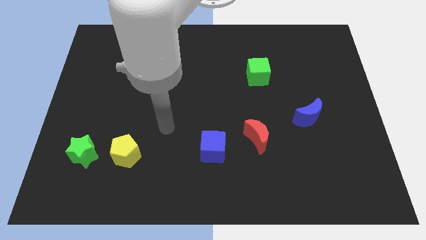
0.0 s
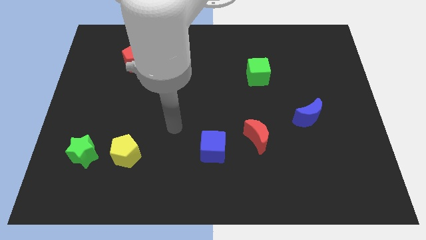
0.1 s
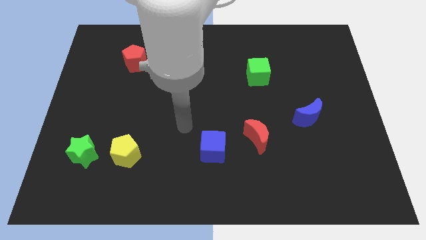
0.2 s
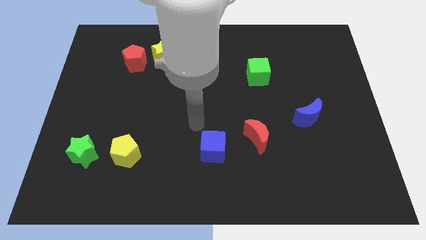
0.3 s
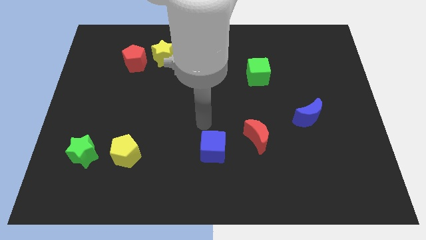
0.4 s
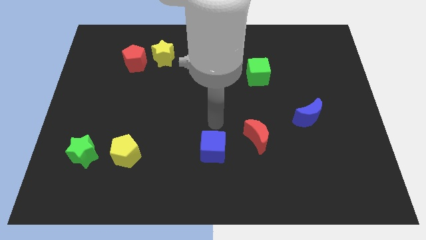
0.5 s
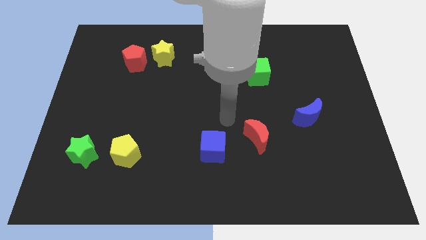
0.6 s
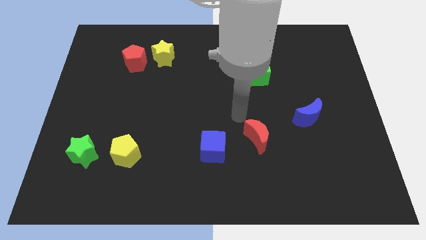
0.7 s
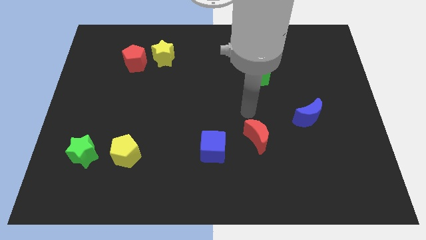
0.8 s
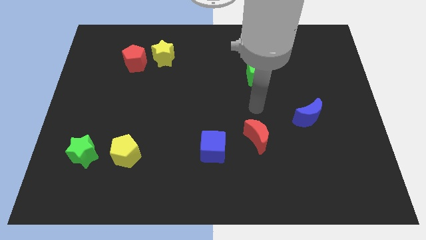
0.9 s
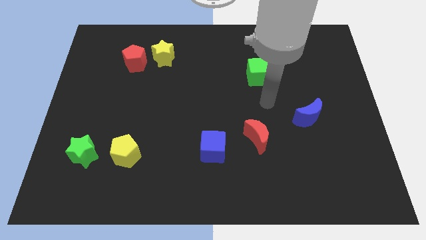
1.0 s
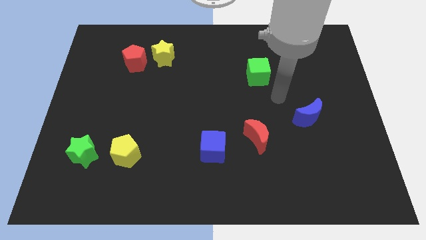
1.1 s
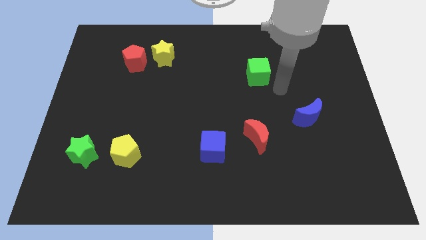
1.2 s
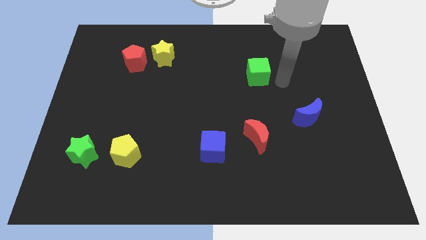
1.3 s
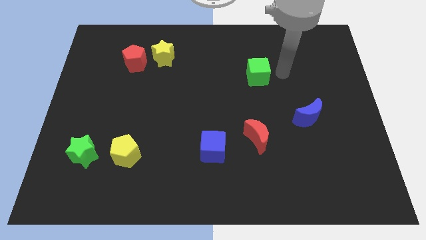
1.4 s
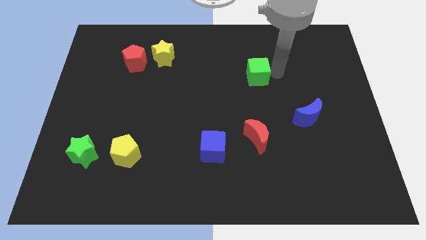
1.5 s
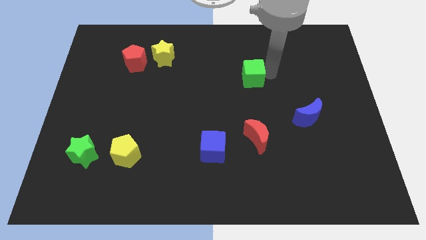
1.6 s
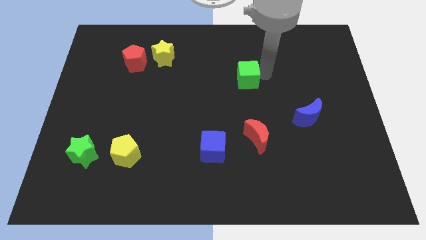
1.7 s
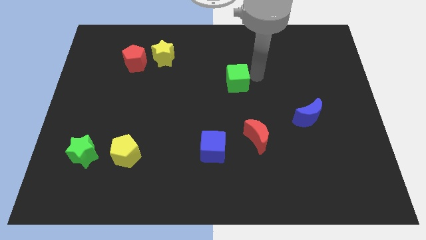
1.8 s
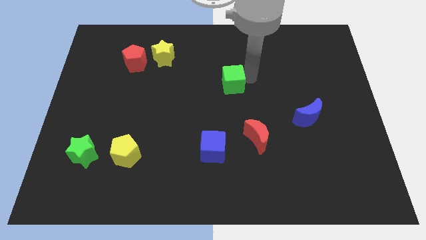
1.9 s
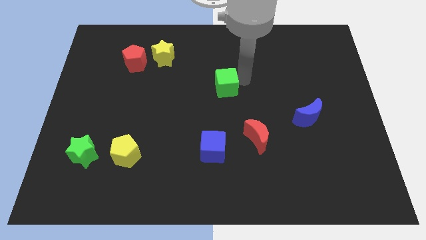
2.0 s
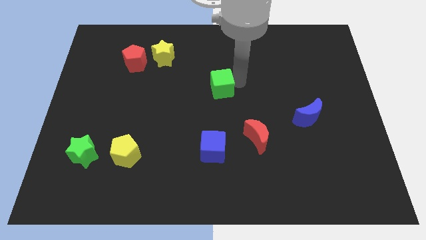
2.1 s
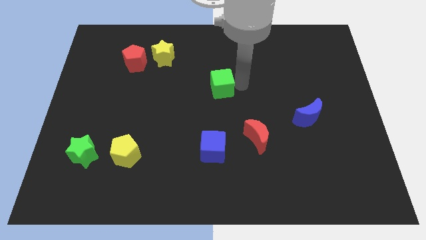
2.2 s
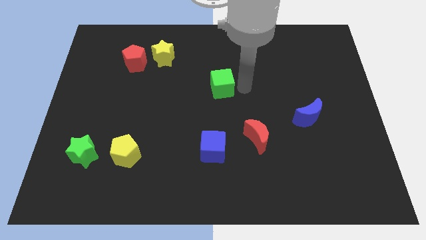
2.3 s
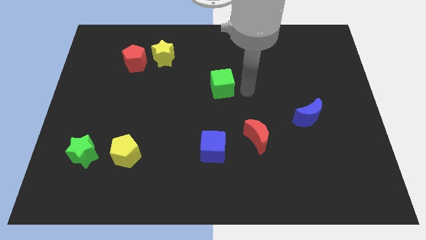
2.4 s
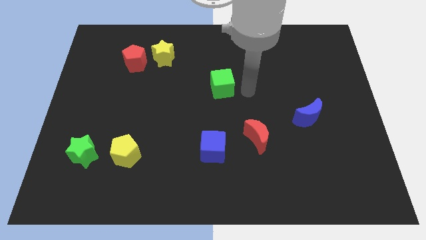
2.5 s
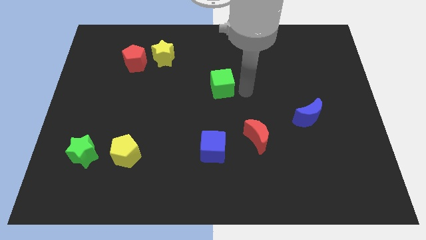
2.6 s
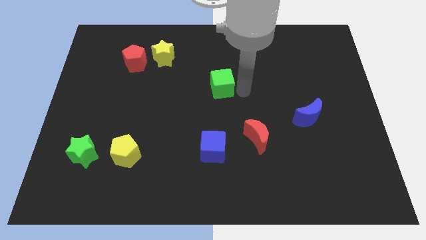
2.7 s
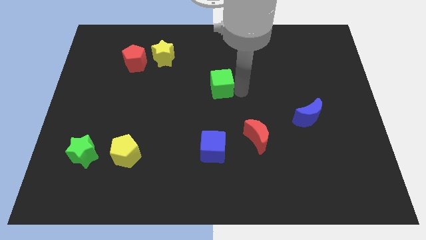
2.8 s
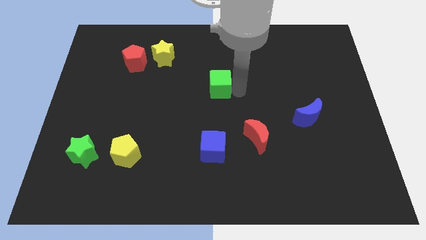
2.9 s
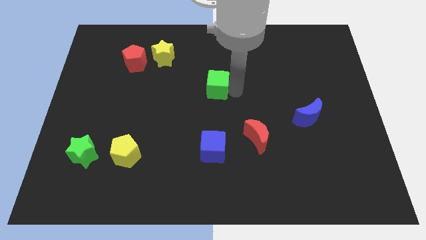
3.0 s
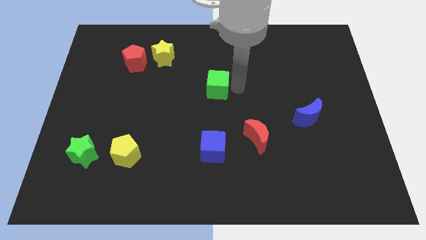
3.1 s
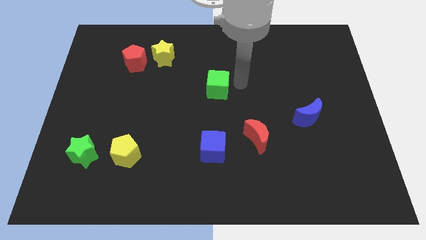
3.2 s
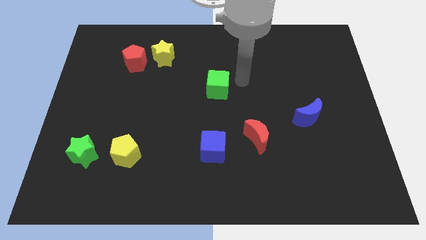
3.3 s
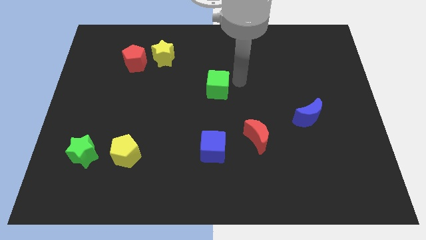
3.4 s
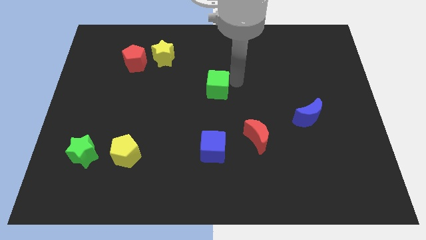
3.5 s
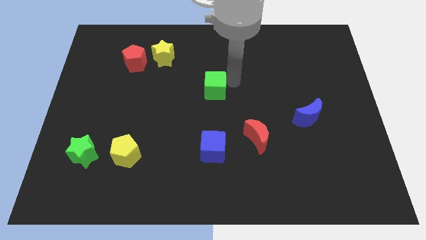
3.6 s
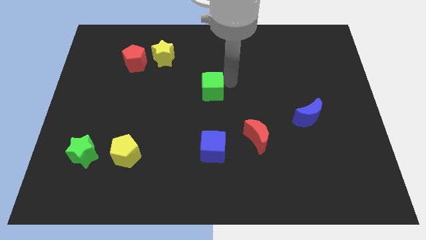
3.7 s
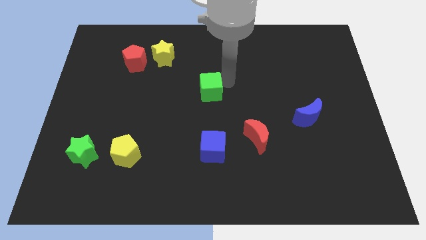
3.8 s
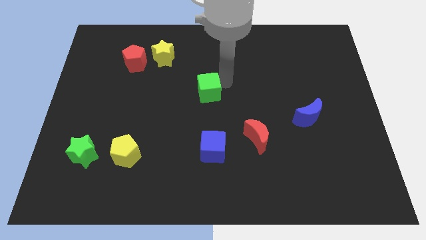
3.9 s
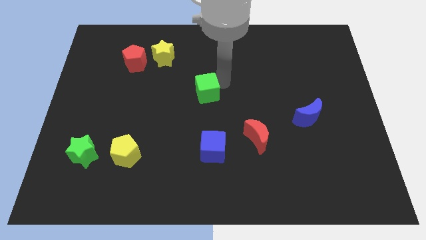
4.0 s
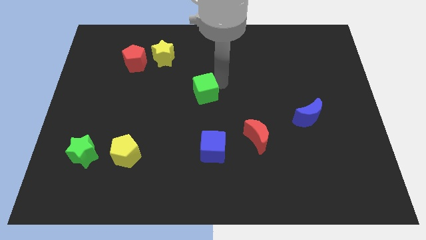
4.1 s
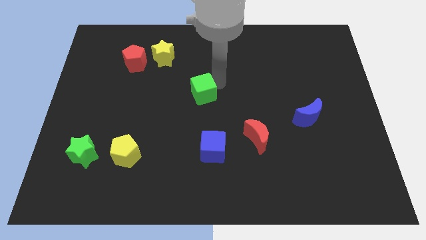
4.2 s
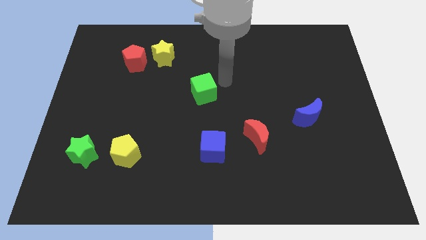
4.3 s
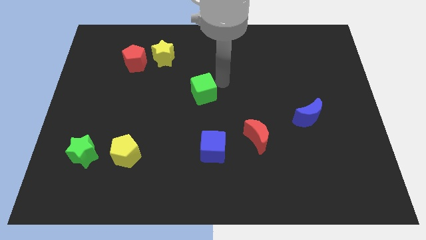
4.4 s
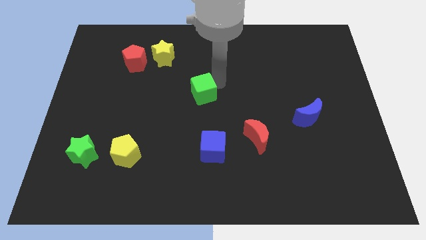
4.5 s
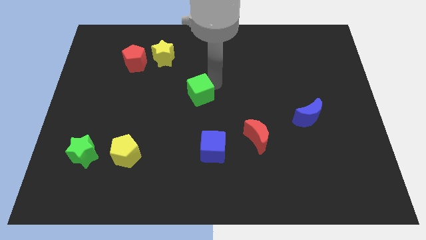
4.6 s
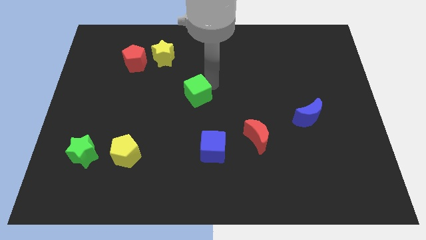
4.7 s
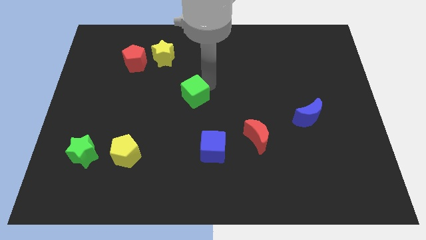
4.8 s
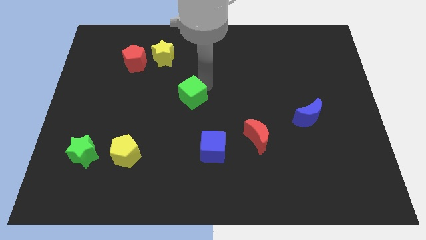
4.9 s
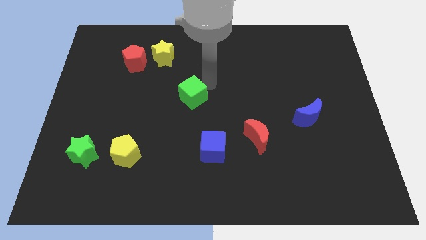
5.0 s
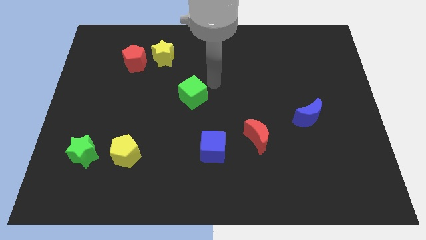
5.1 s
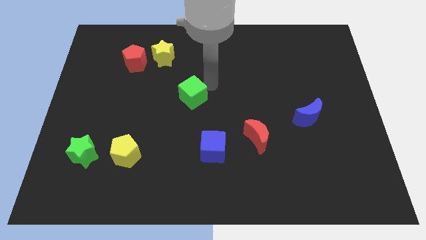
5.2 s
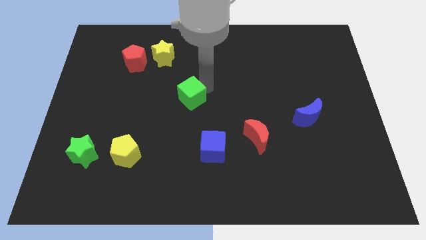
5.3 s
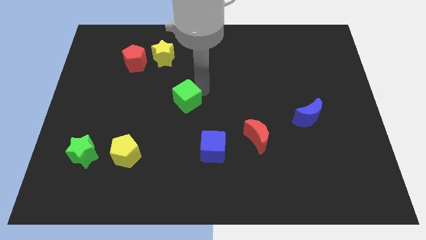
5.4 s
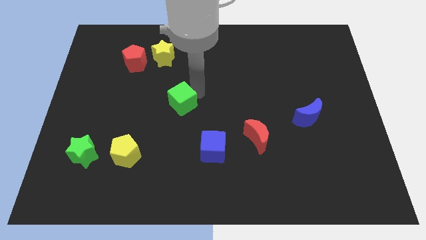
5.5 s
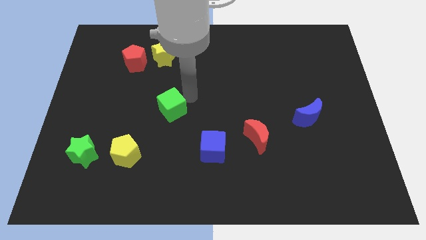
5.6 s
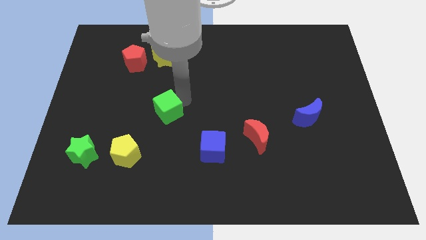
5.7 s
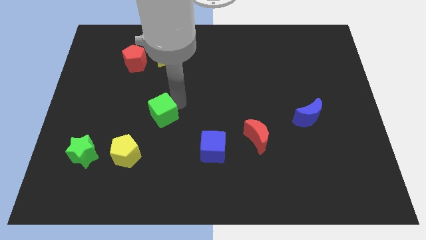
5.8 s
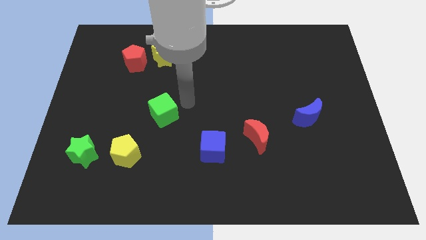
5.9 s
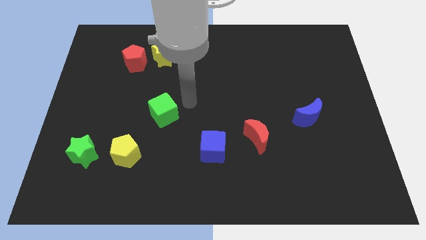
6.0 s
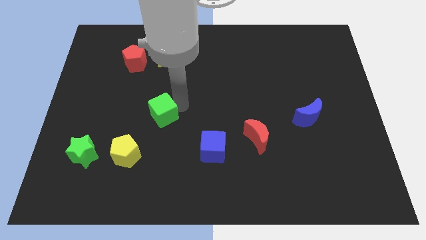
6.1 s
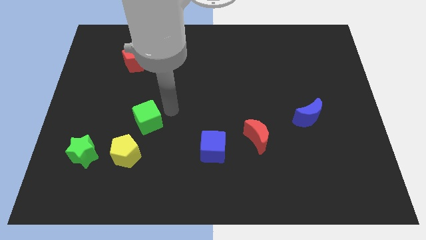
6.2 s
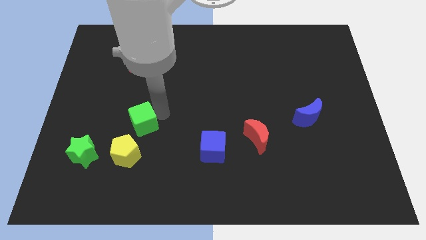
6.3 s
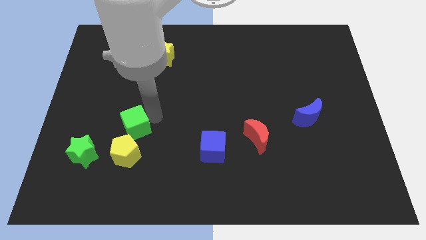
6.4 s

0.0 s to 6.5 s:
move the green cube to the top right side of the green star

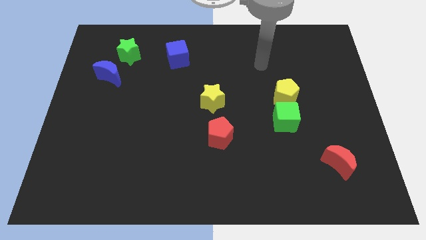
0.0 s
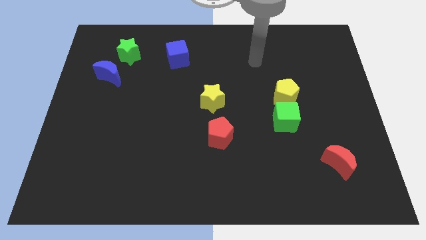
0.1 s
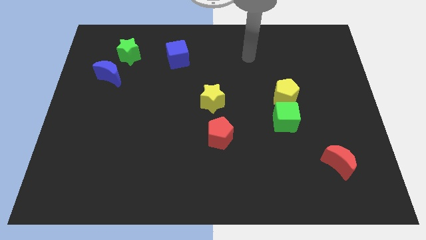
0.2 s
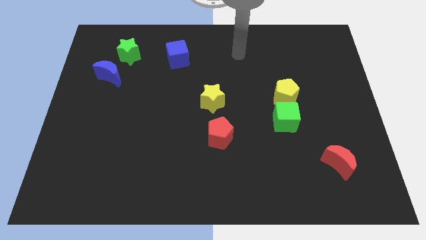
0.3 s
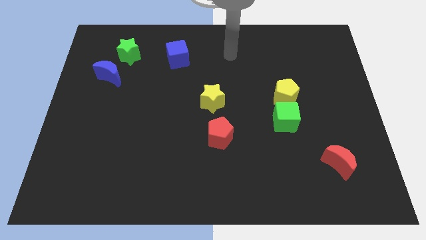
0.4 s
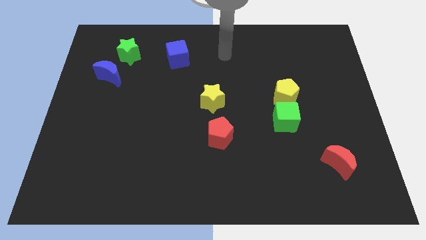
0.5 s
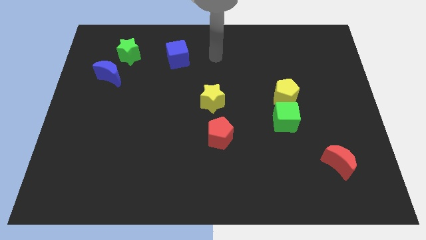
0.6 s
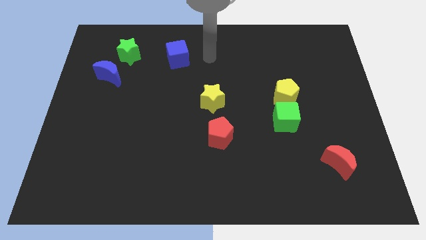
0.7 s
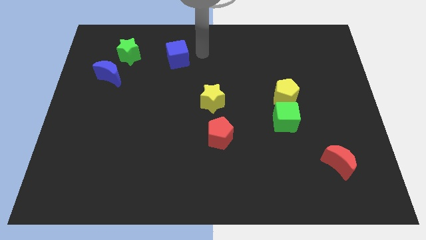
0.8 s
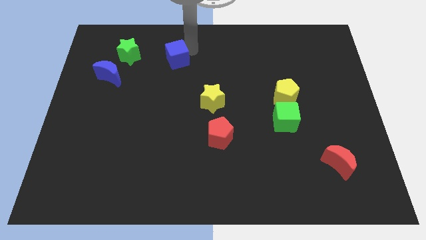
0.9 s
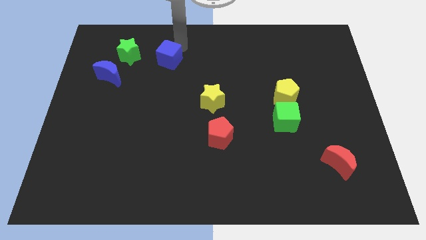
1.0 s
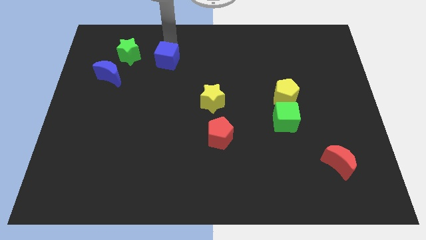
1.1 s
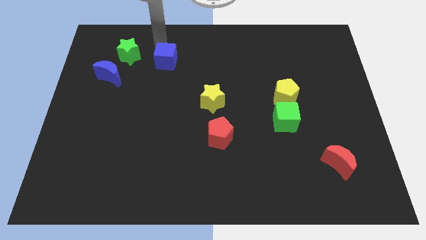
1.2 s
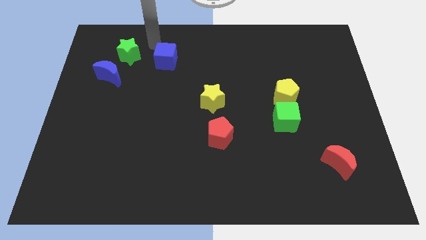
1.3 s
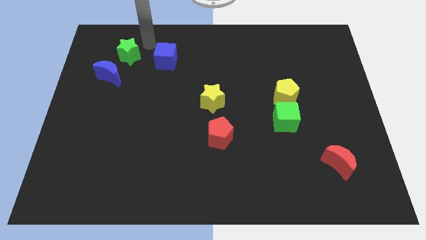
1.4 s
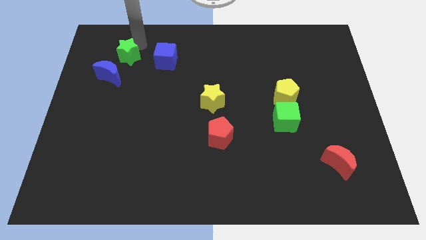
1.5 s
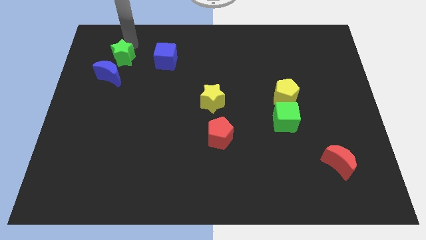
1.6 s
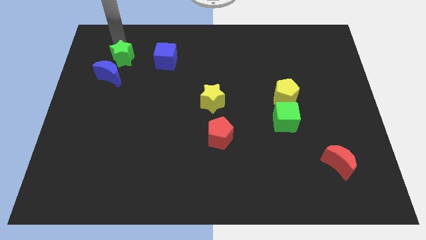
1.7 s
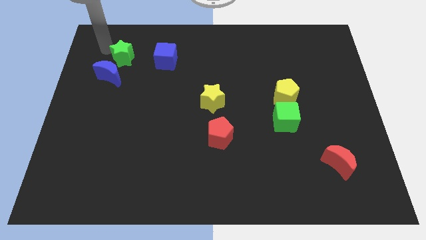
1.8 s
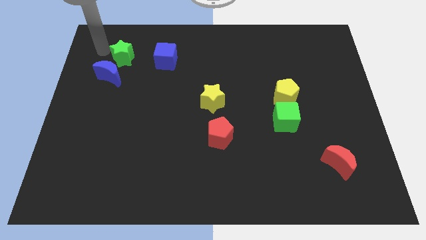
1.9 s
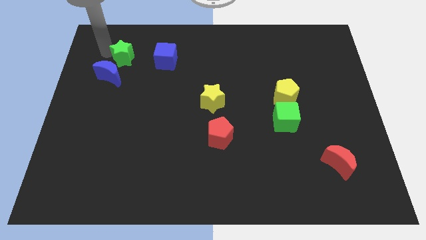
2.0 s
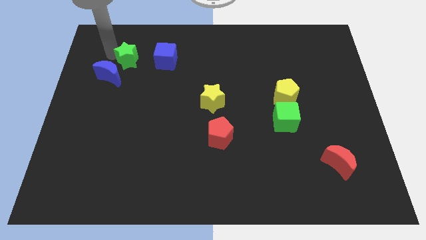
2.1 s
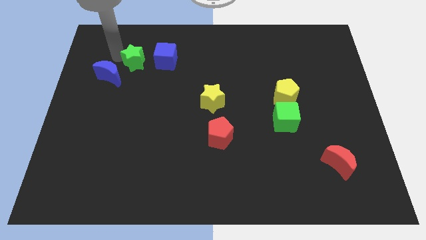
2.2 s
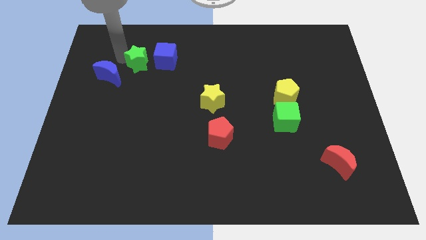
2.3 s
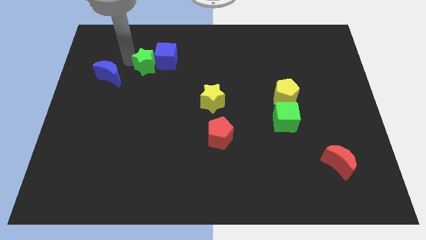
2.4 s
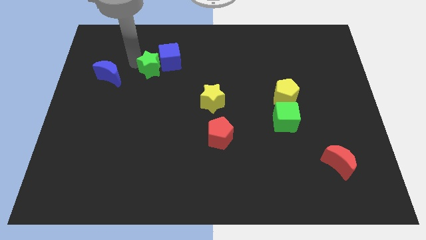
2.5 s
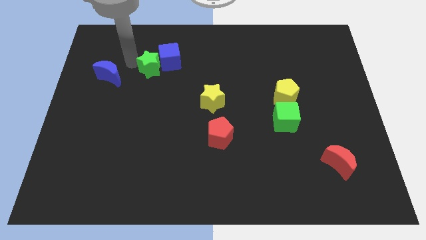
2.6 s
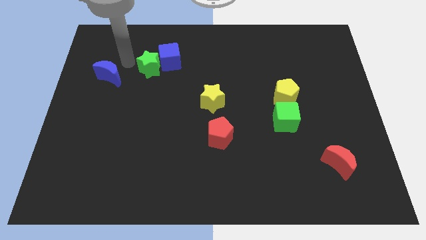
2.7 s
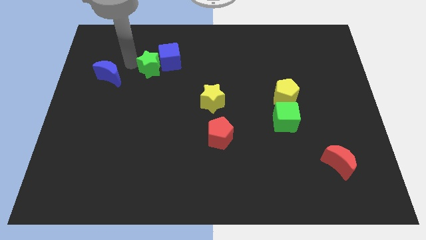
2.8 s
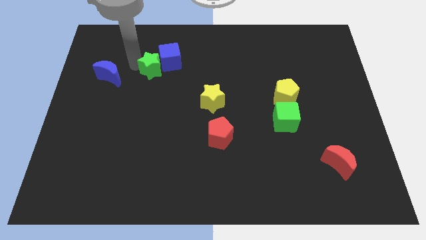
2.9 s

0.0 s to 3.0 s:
slide the green star to the bottom side of the blue cube
